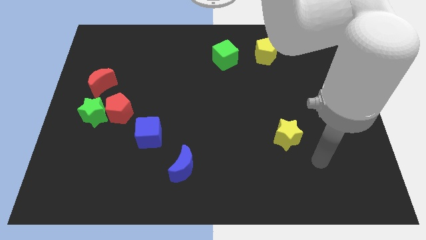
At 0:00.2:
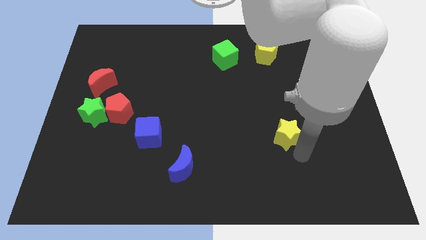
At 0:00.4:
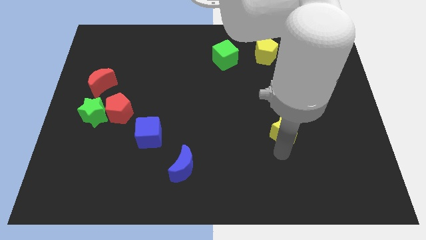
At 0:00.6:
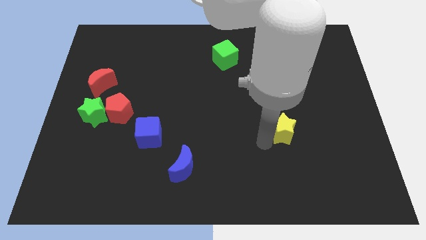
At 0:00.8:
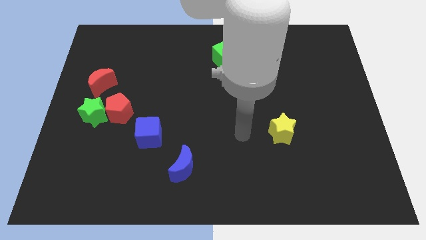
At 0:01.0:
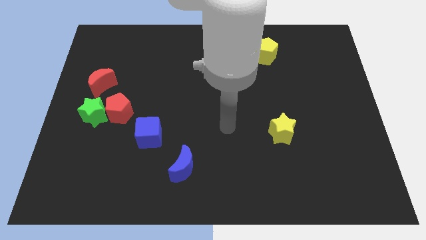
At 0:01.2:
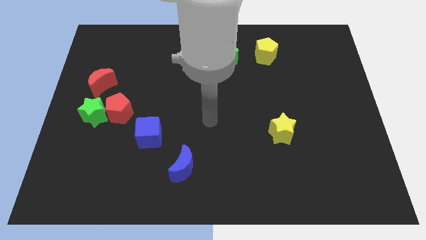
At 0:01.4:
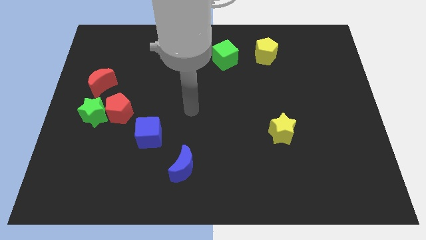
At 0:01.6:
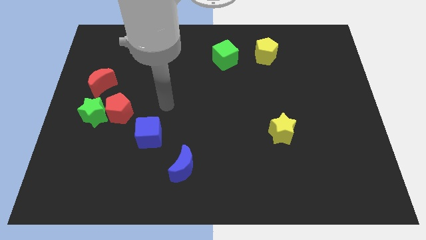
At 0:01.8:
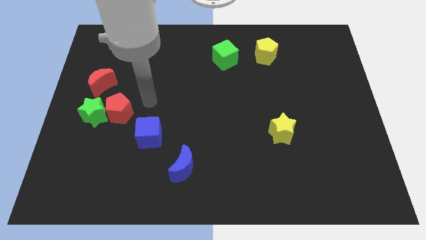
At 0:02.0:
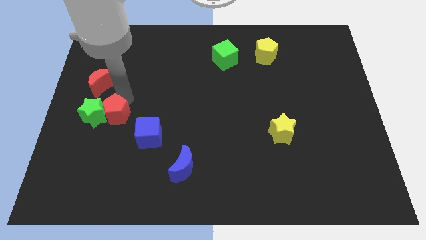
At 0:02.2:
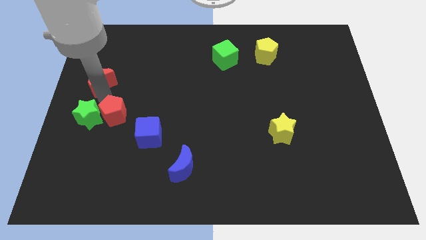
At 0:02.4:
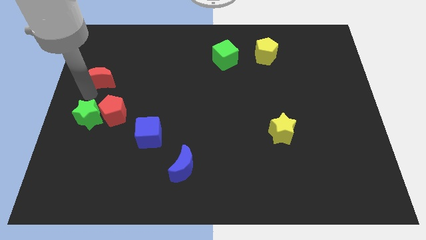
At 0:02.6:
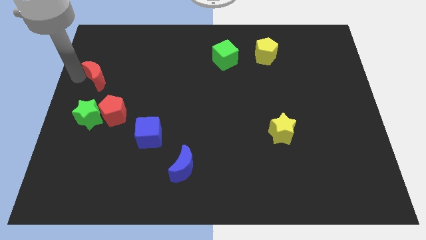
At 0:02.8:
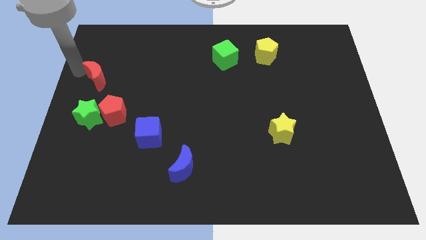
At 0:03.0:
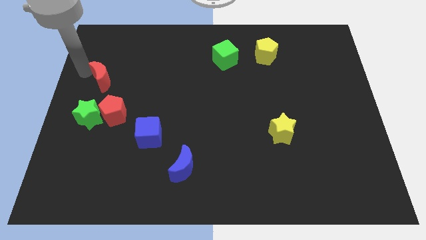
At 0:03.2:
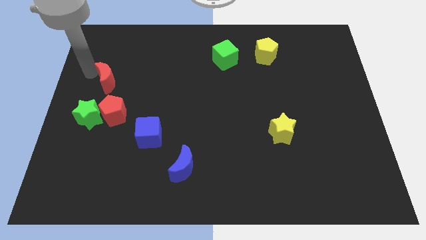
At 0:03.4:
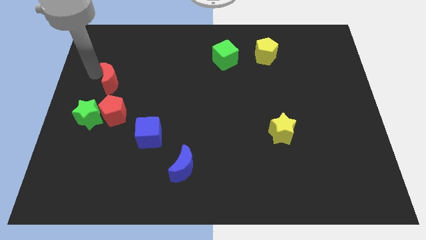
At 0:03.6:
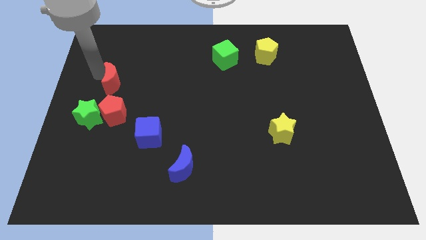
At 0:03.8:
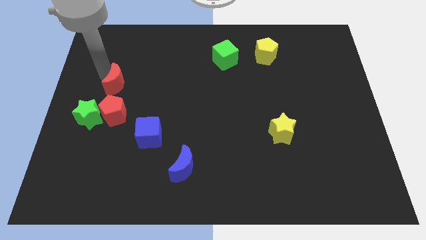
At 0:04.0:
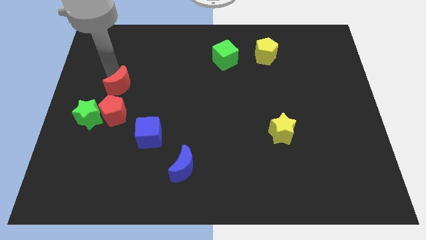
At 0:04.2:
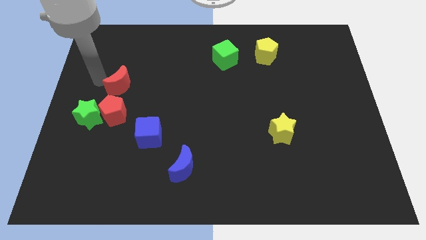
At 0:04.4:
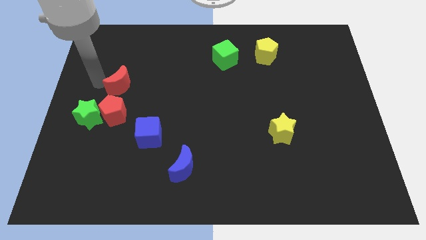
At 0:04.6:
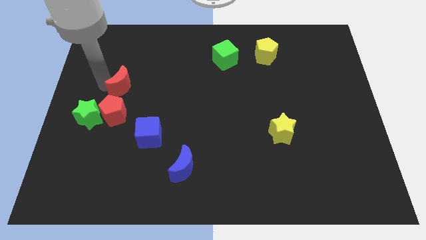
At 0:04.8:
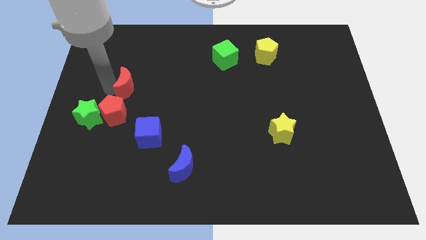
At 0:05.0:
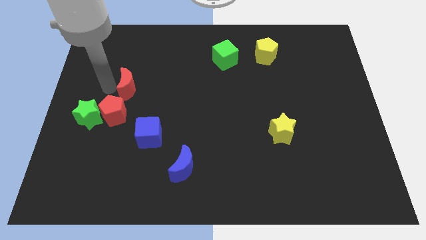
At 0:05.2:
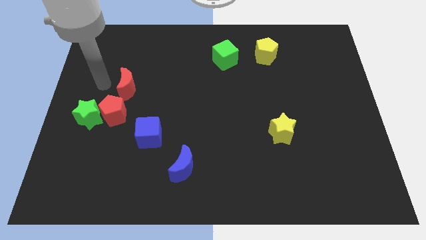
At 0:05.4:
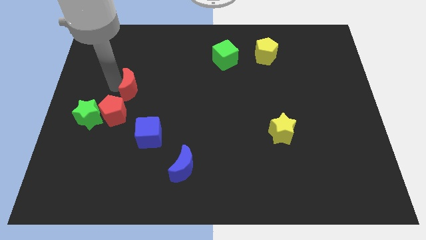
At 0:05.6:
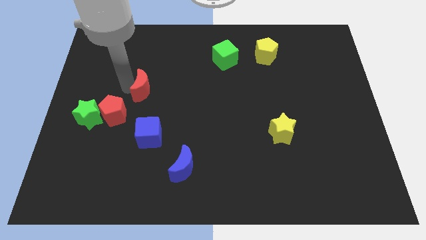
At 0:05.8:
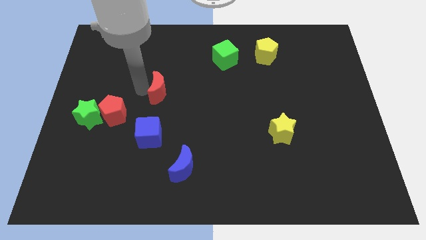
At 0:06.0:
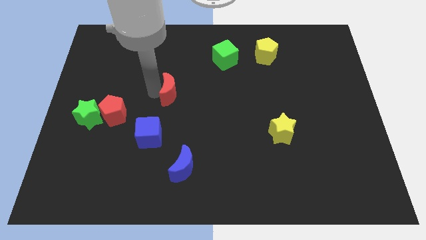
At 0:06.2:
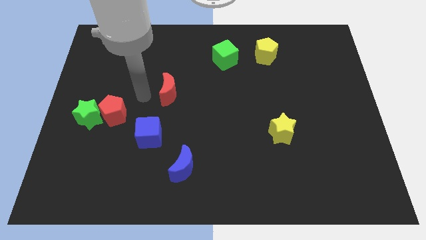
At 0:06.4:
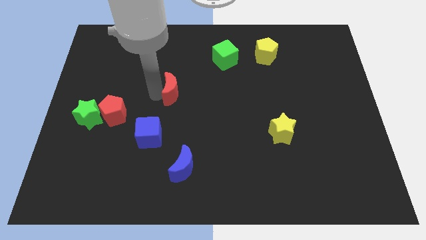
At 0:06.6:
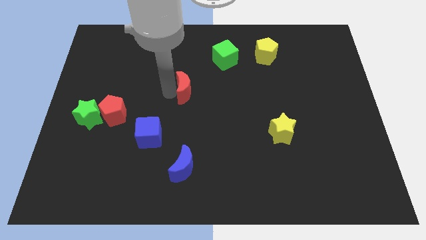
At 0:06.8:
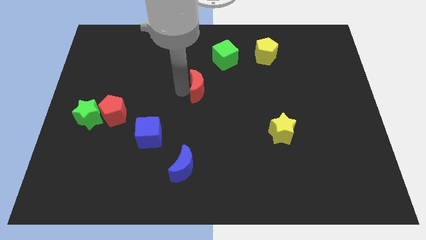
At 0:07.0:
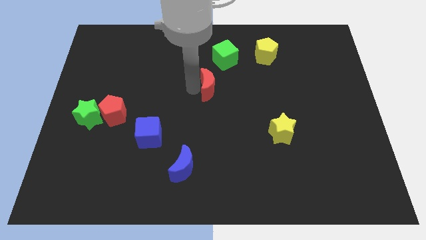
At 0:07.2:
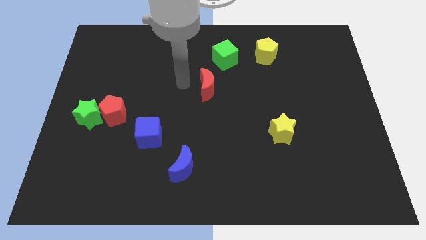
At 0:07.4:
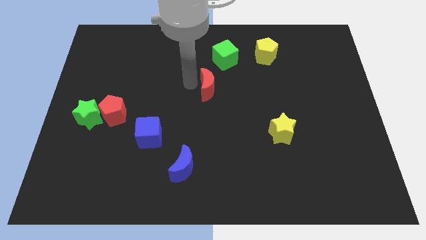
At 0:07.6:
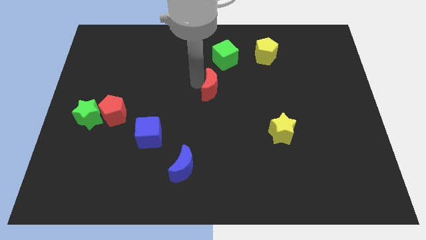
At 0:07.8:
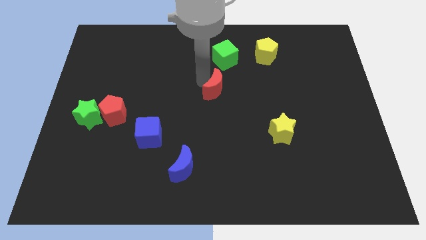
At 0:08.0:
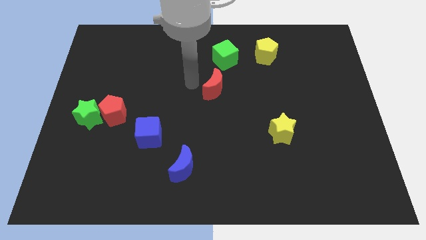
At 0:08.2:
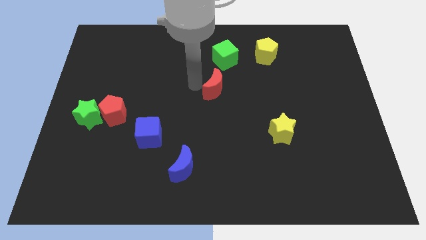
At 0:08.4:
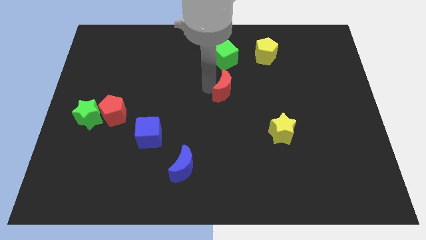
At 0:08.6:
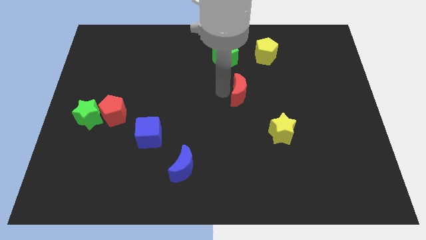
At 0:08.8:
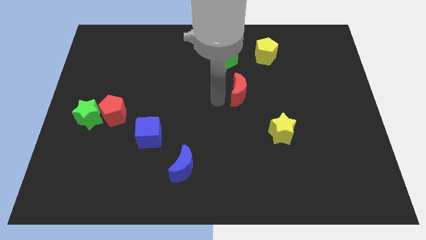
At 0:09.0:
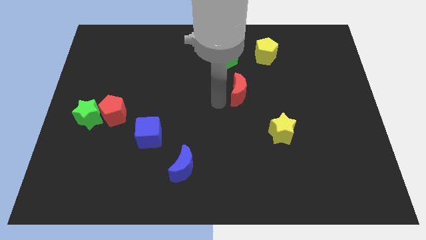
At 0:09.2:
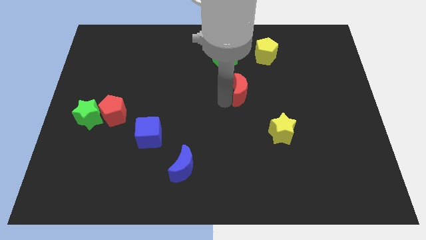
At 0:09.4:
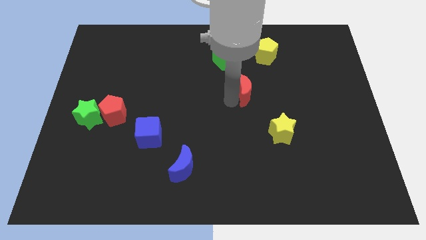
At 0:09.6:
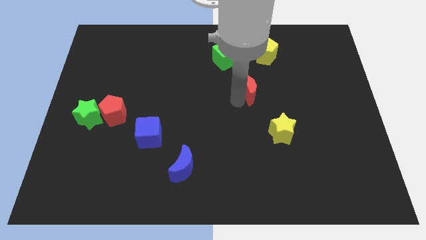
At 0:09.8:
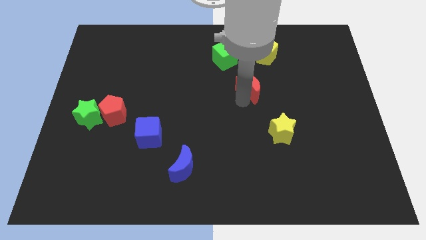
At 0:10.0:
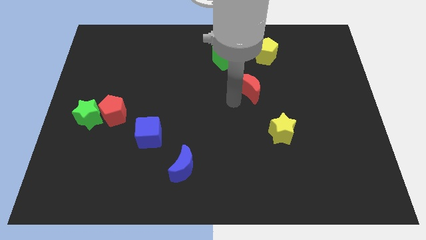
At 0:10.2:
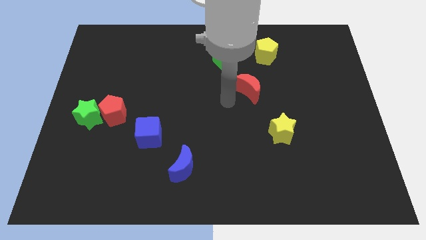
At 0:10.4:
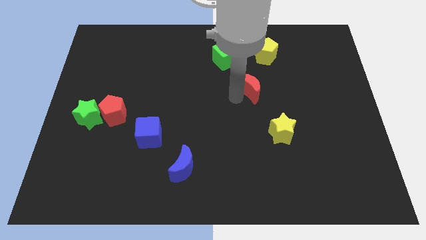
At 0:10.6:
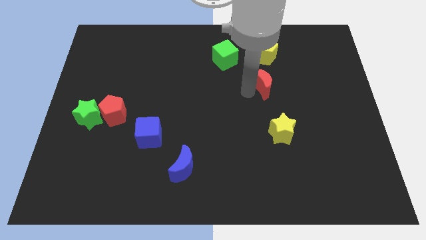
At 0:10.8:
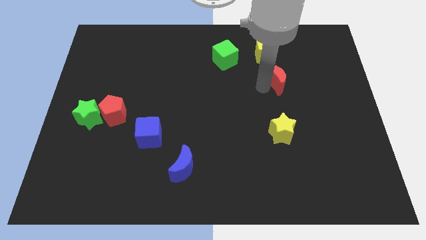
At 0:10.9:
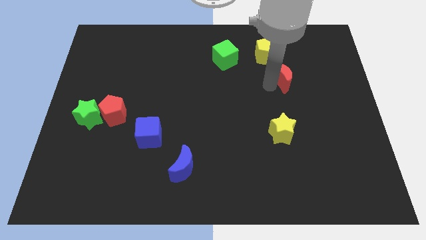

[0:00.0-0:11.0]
slide the red moon to the bottom right side of the yellow pentagon

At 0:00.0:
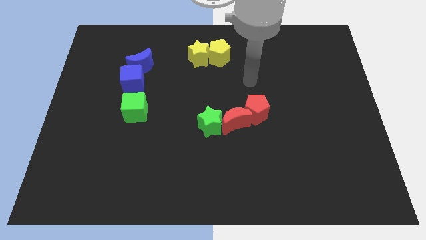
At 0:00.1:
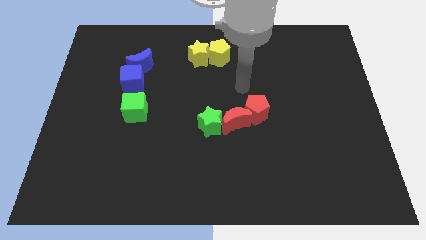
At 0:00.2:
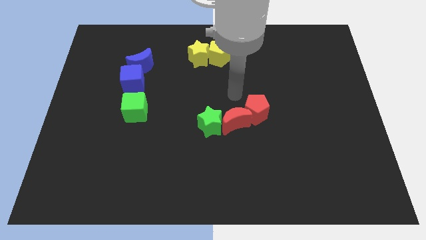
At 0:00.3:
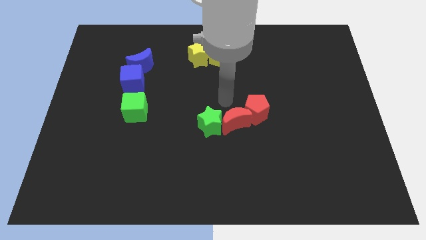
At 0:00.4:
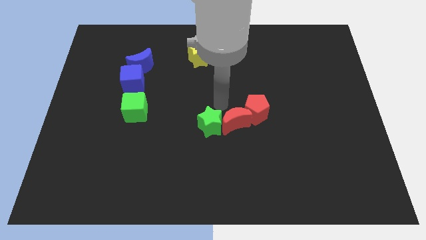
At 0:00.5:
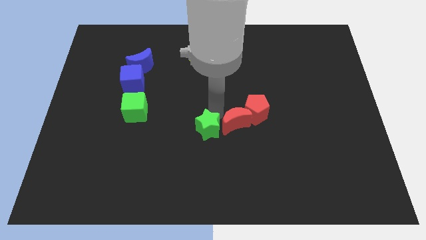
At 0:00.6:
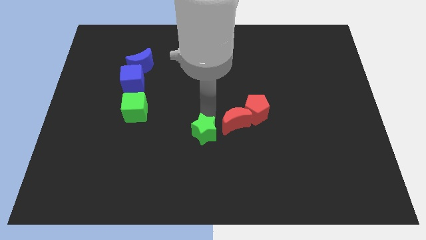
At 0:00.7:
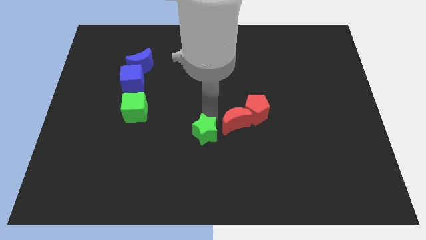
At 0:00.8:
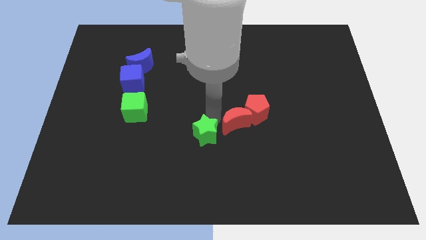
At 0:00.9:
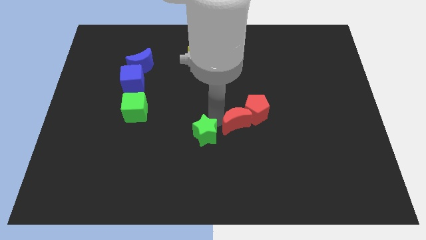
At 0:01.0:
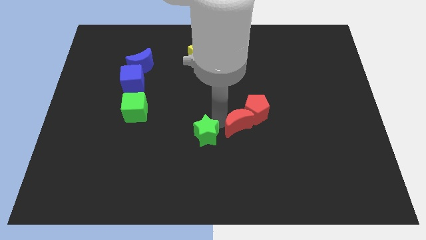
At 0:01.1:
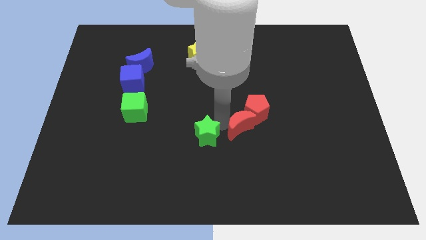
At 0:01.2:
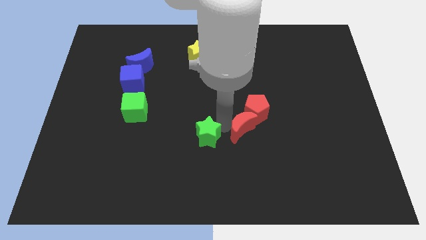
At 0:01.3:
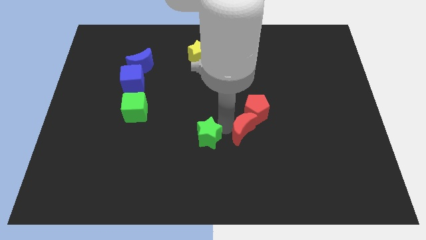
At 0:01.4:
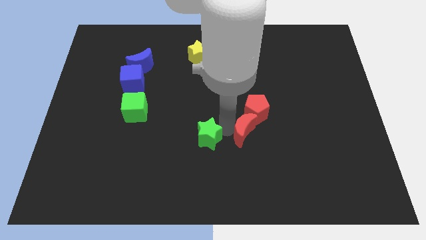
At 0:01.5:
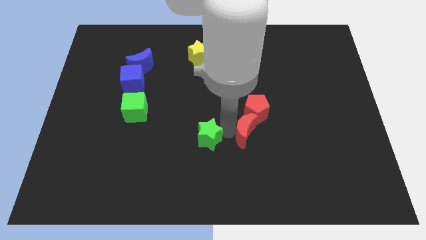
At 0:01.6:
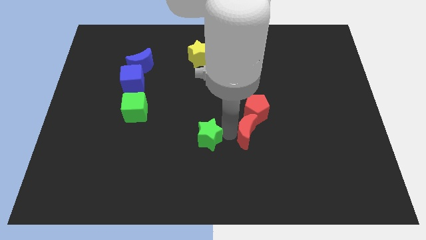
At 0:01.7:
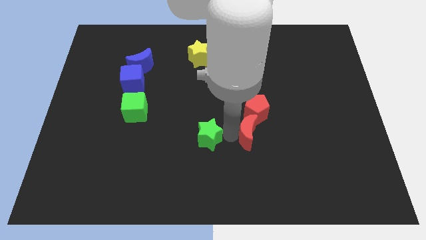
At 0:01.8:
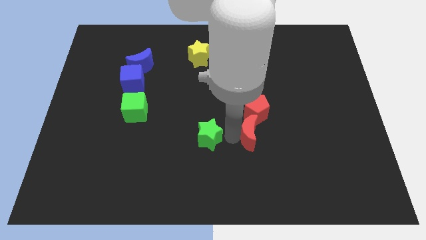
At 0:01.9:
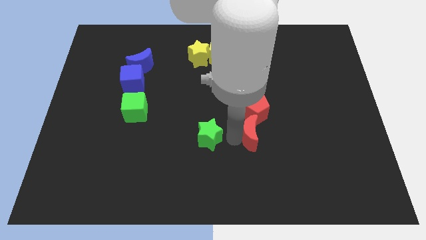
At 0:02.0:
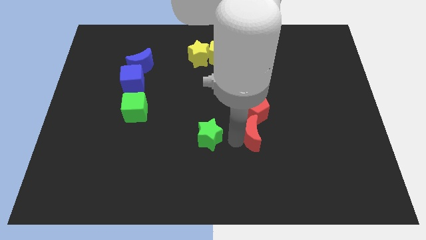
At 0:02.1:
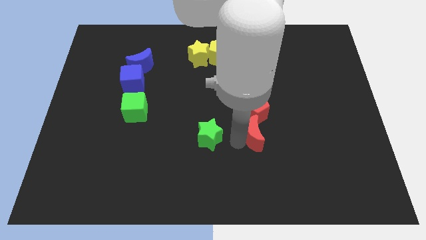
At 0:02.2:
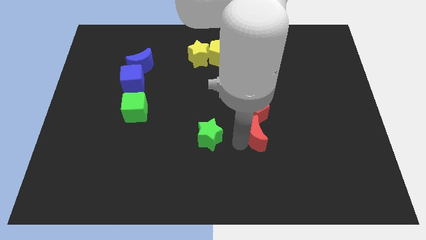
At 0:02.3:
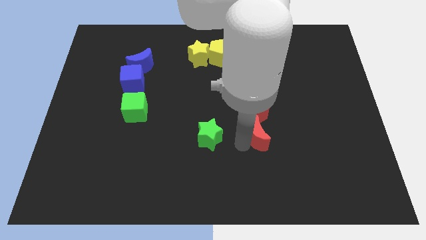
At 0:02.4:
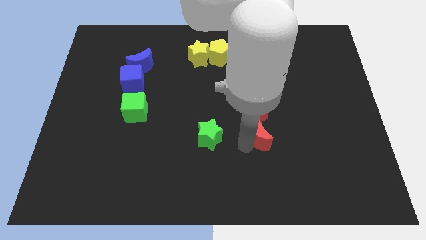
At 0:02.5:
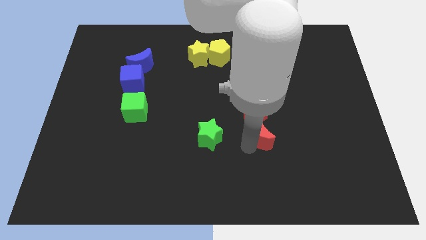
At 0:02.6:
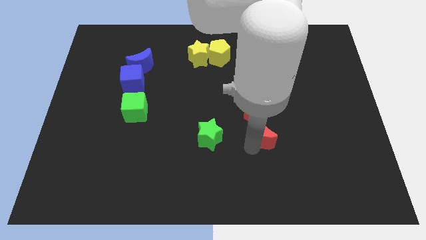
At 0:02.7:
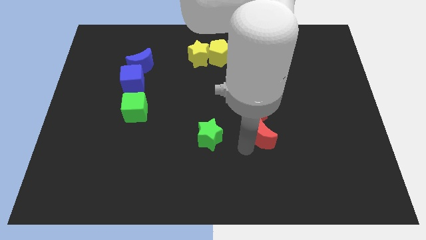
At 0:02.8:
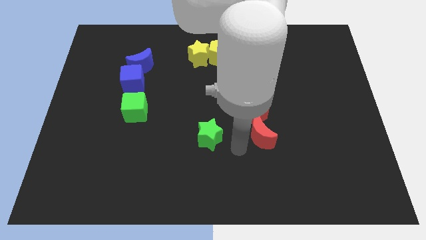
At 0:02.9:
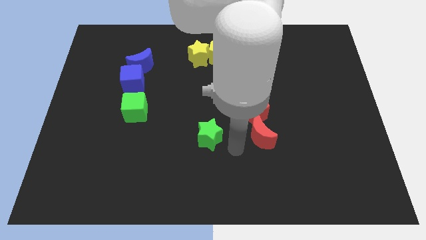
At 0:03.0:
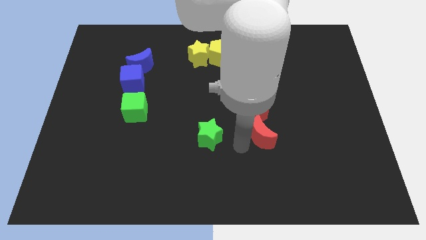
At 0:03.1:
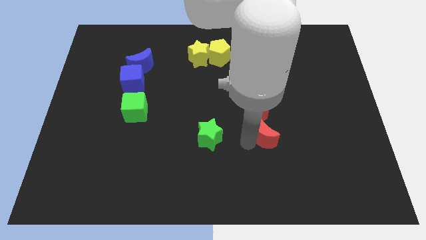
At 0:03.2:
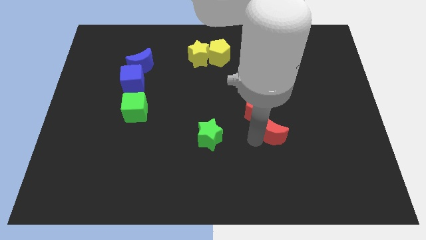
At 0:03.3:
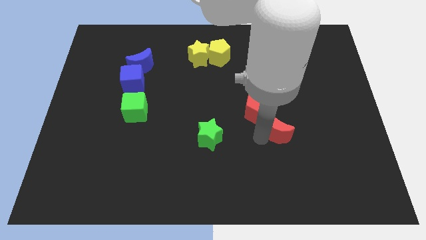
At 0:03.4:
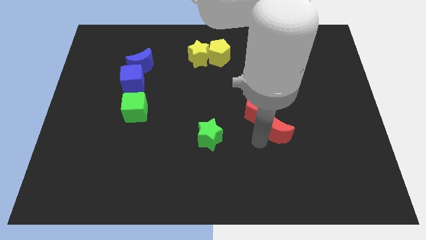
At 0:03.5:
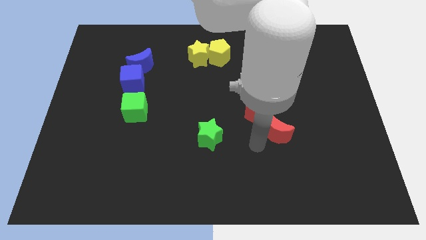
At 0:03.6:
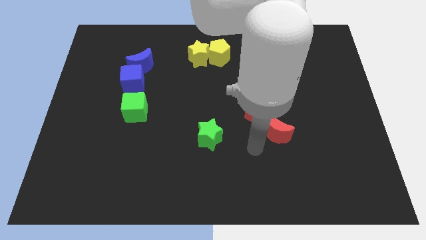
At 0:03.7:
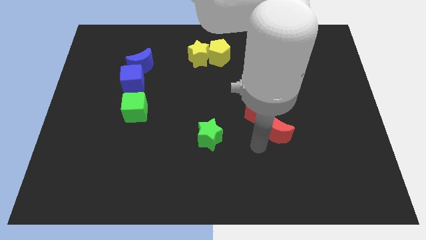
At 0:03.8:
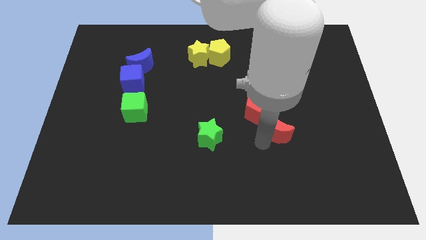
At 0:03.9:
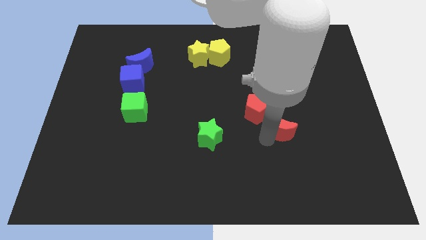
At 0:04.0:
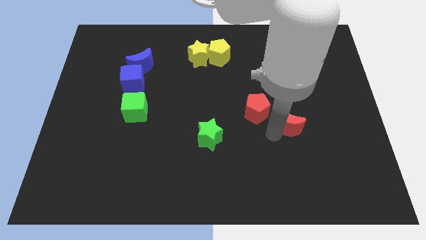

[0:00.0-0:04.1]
push the red moon to the right side of the red pentagon
